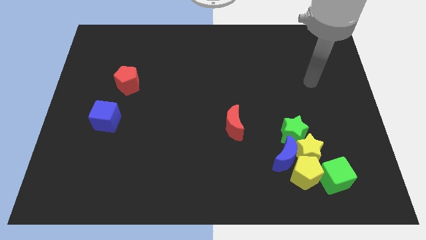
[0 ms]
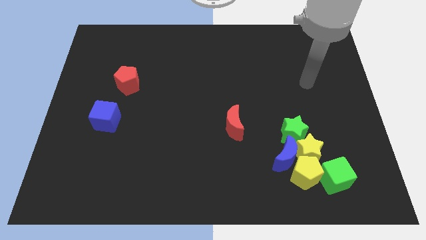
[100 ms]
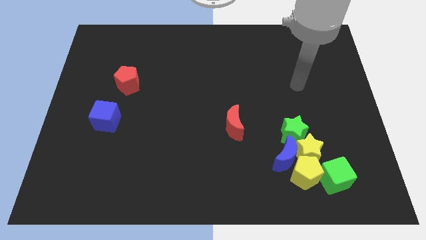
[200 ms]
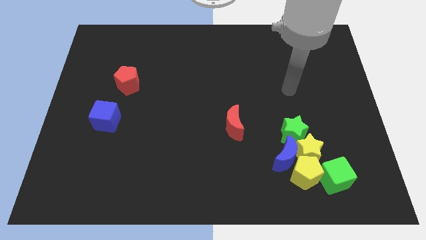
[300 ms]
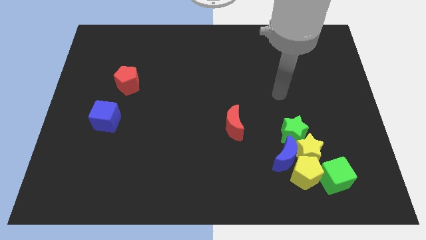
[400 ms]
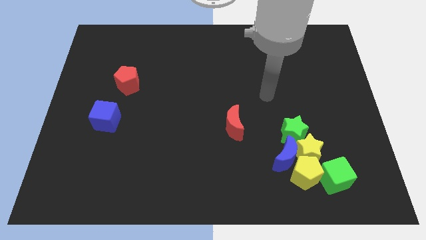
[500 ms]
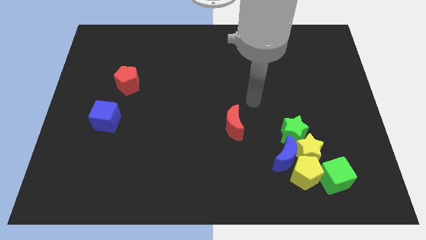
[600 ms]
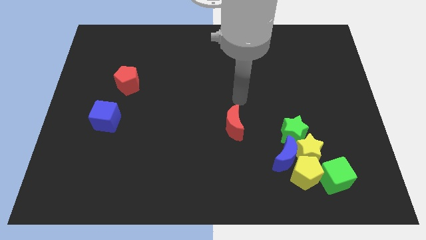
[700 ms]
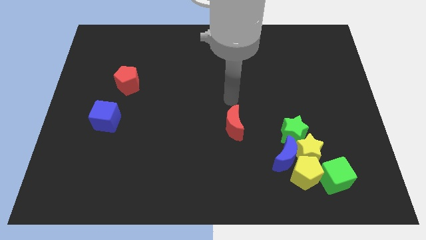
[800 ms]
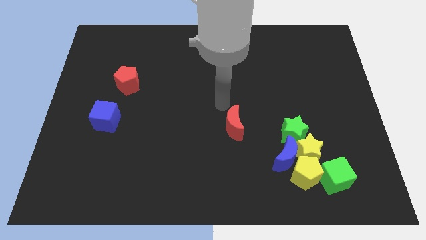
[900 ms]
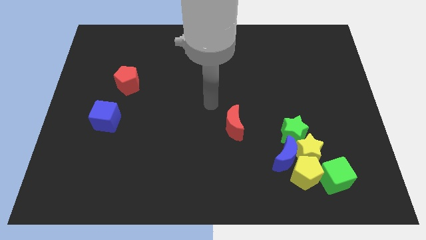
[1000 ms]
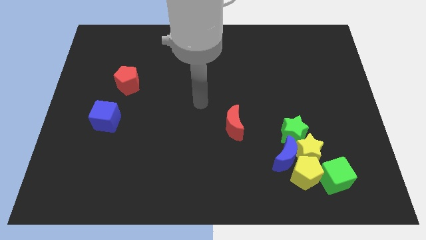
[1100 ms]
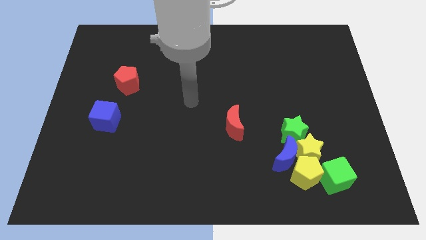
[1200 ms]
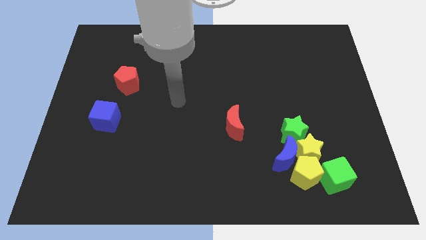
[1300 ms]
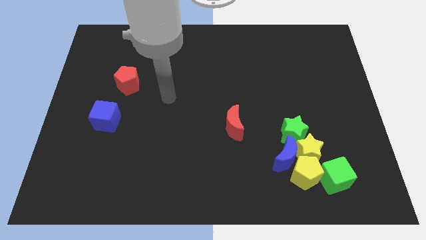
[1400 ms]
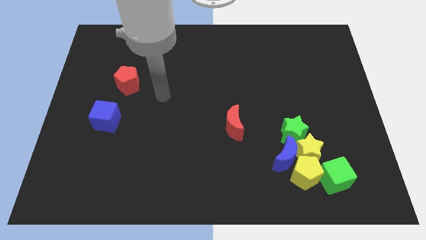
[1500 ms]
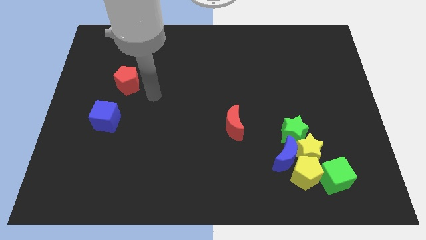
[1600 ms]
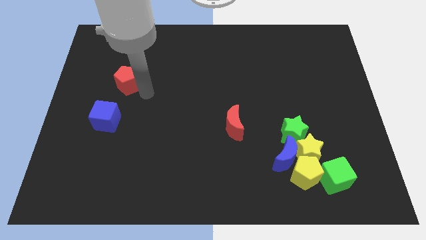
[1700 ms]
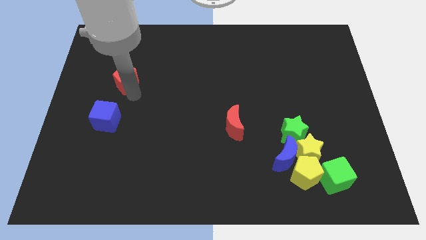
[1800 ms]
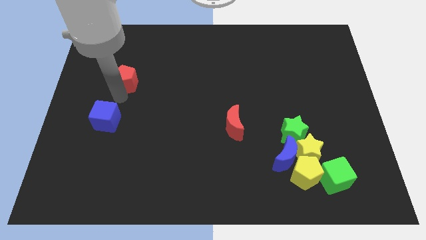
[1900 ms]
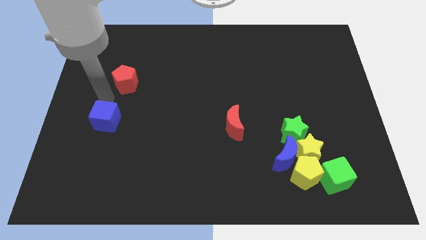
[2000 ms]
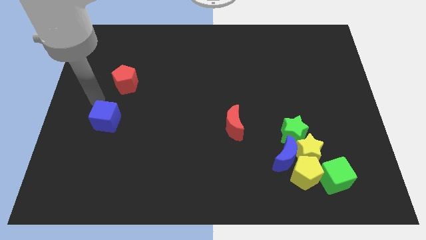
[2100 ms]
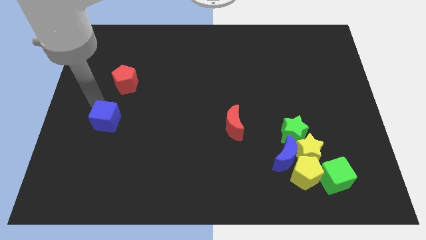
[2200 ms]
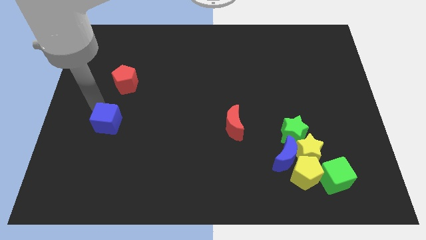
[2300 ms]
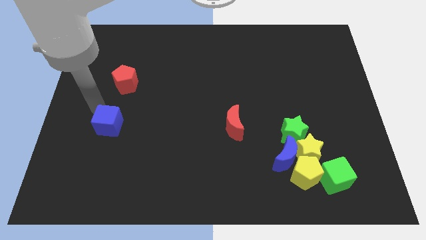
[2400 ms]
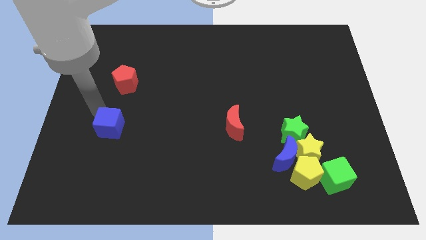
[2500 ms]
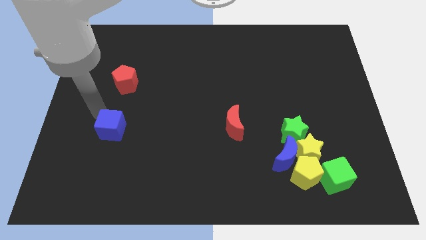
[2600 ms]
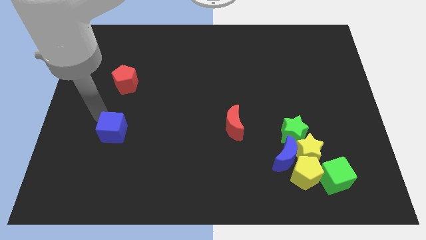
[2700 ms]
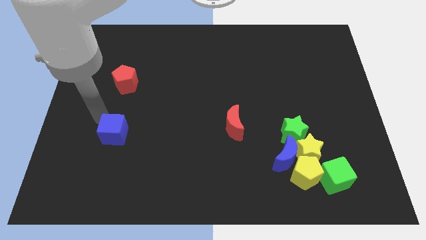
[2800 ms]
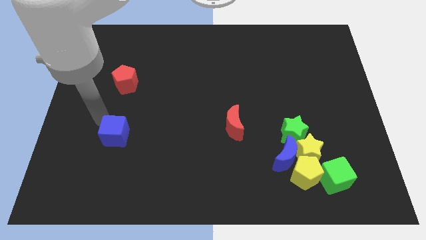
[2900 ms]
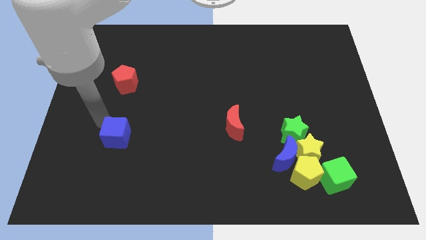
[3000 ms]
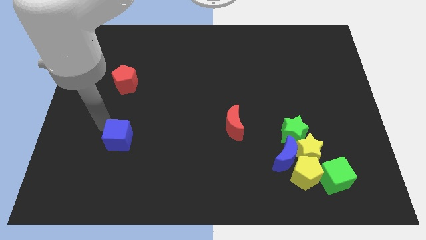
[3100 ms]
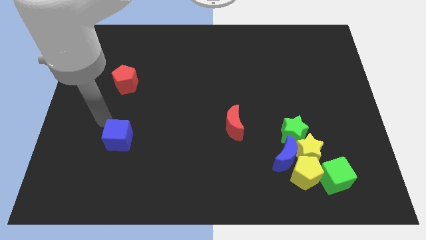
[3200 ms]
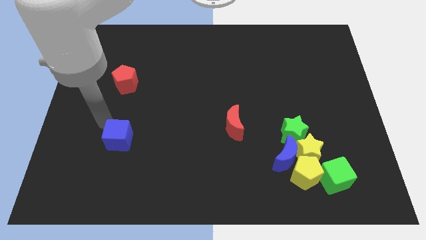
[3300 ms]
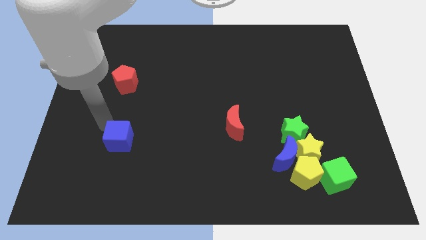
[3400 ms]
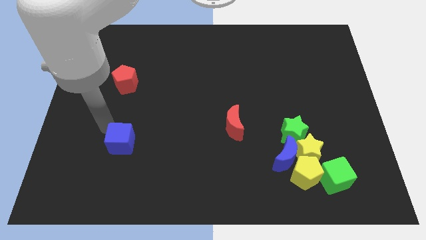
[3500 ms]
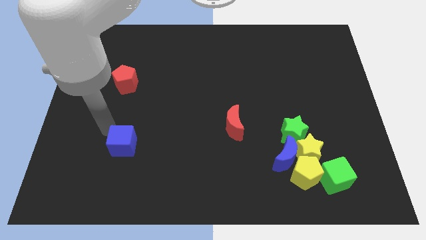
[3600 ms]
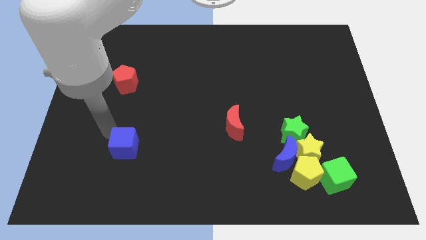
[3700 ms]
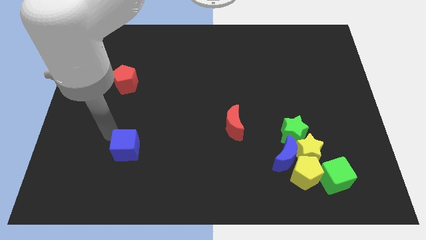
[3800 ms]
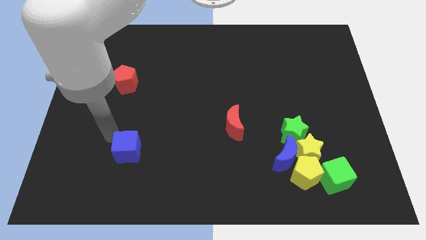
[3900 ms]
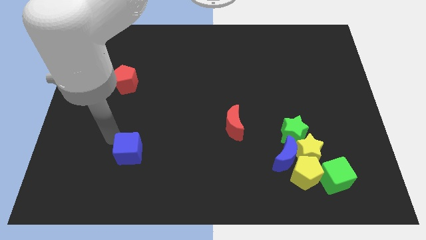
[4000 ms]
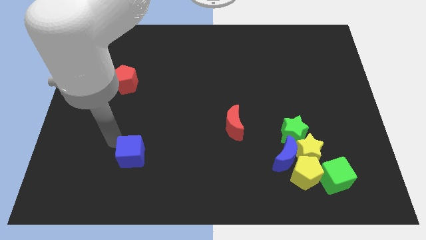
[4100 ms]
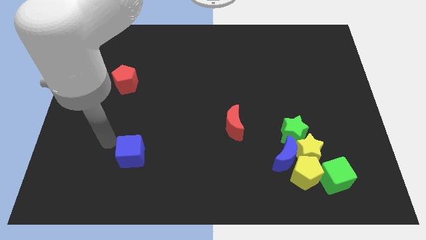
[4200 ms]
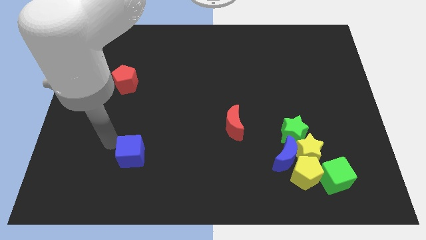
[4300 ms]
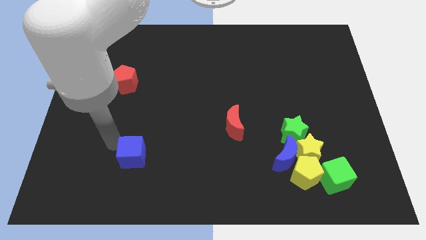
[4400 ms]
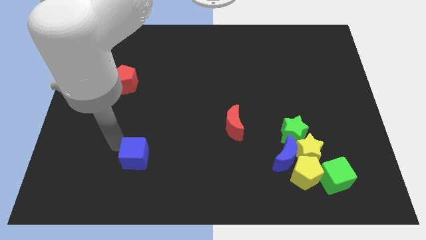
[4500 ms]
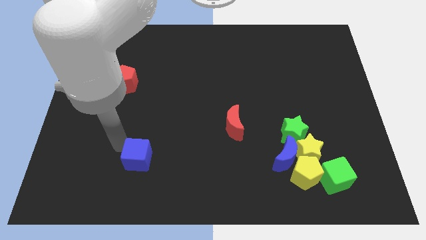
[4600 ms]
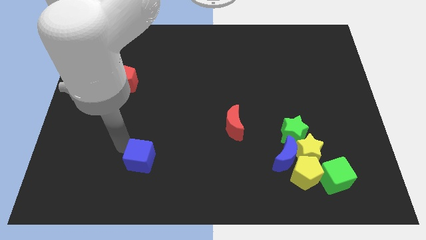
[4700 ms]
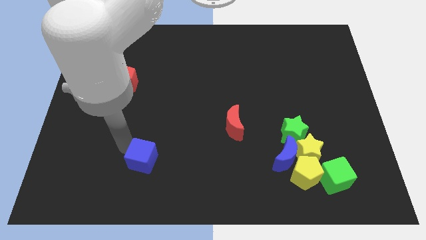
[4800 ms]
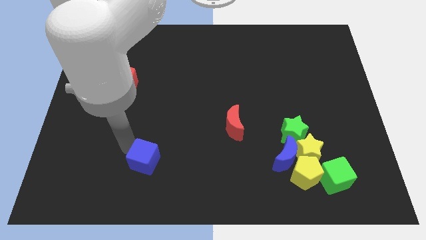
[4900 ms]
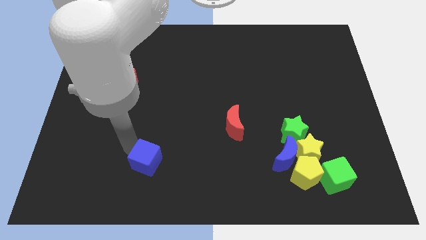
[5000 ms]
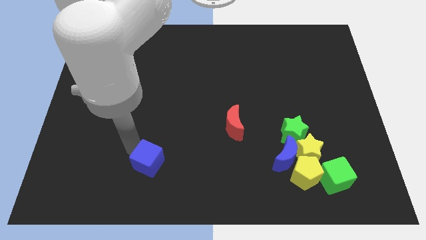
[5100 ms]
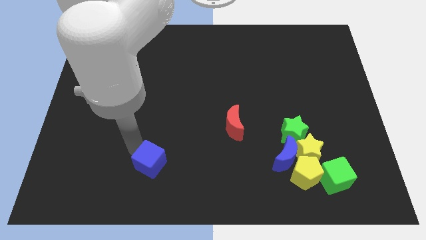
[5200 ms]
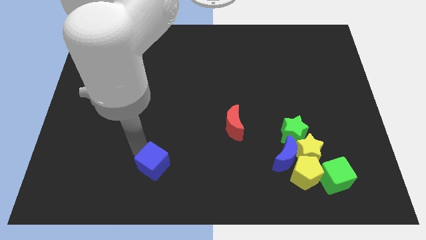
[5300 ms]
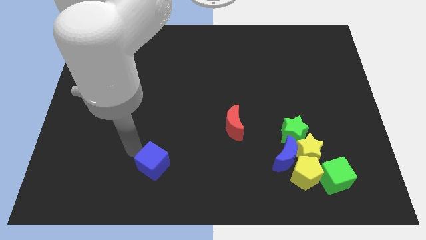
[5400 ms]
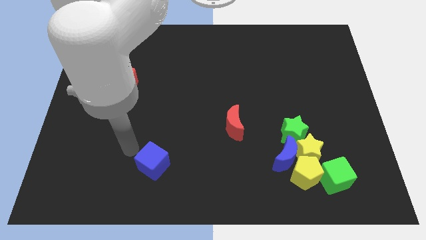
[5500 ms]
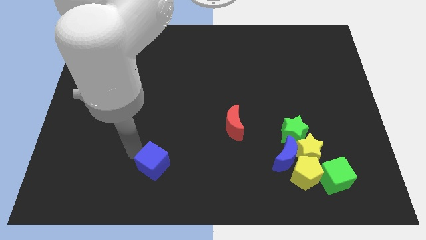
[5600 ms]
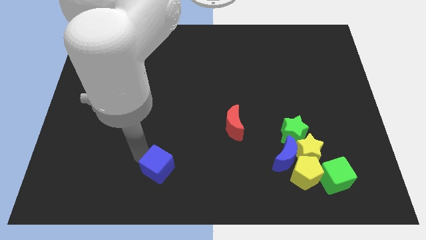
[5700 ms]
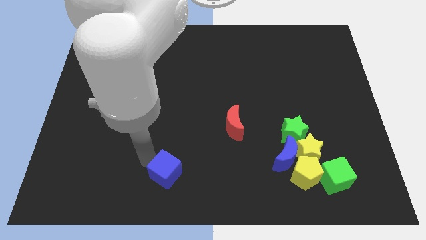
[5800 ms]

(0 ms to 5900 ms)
slide the blue cube to the bottom side

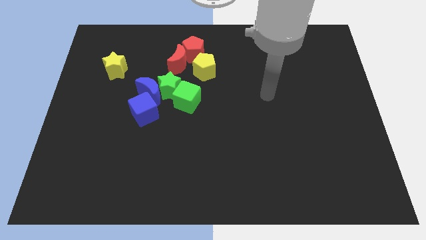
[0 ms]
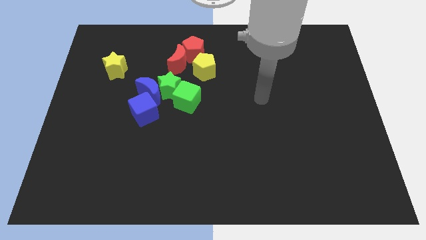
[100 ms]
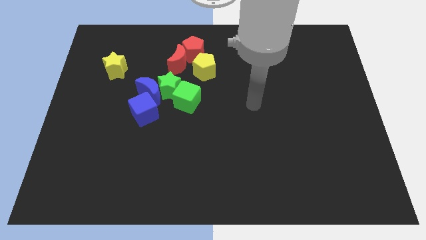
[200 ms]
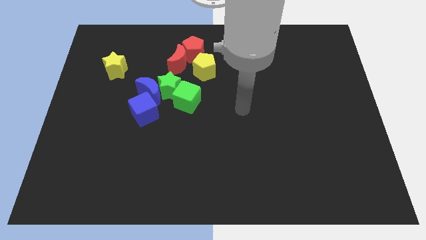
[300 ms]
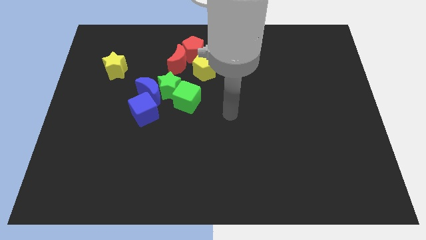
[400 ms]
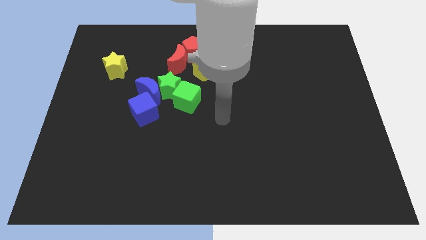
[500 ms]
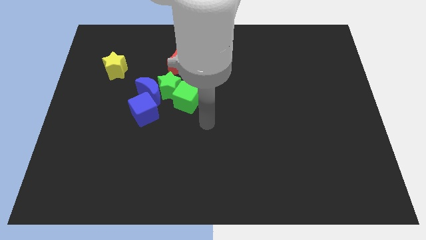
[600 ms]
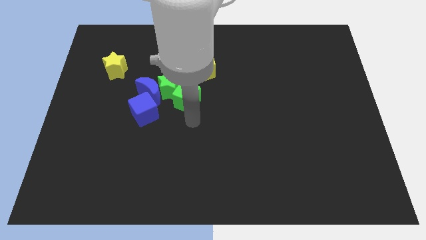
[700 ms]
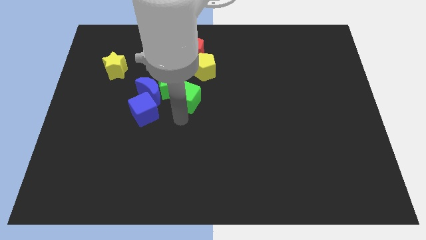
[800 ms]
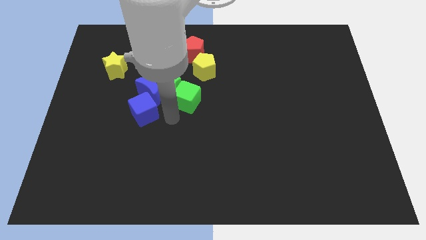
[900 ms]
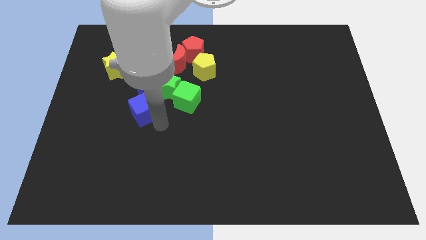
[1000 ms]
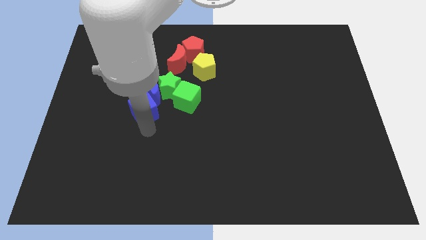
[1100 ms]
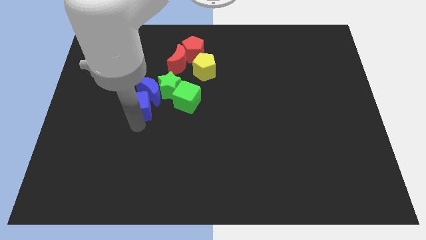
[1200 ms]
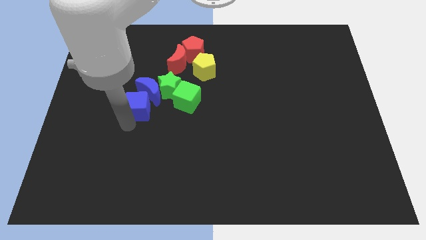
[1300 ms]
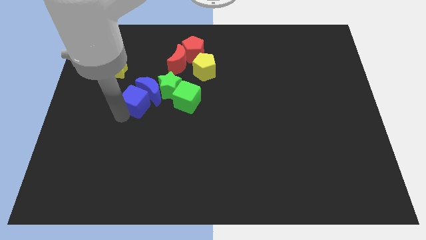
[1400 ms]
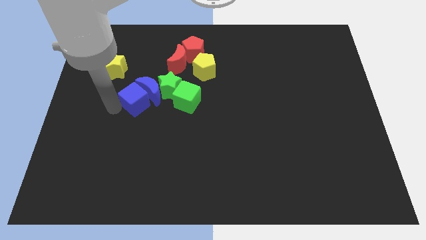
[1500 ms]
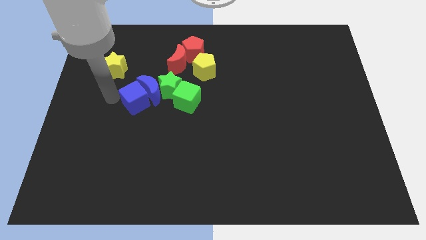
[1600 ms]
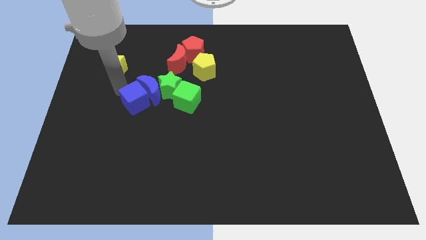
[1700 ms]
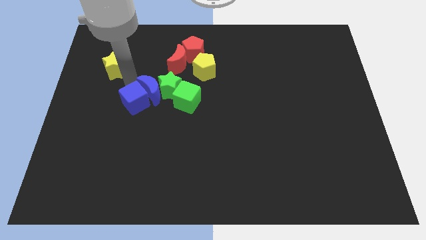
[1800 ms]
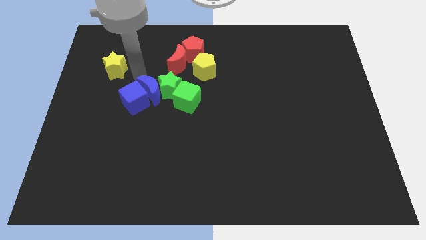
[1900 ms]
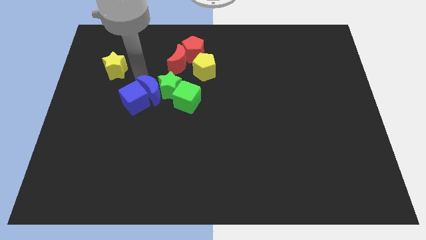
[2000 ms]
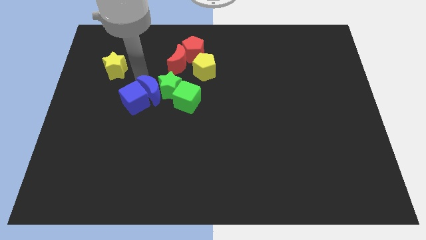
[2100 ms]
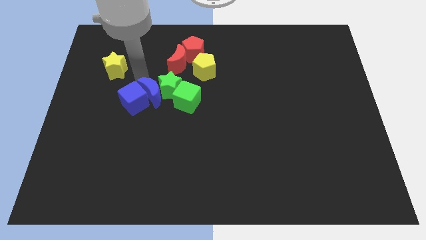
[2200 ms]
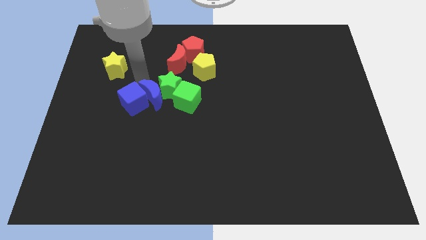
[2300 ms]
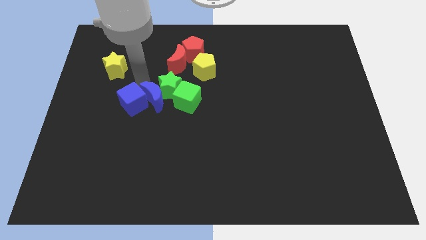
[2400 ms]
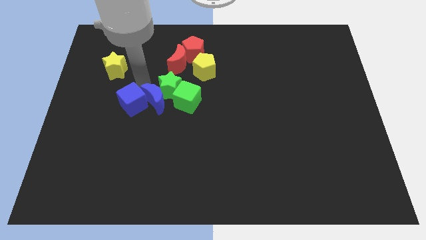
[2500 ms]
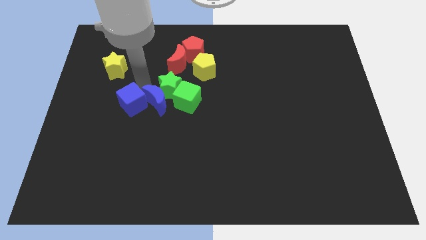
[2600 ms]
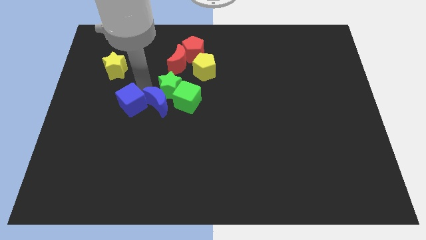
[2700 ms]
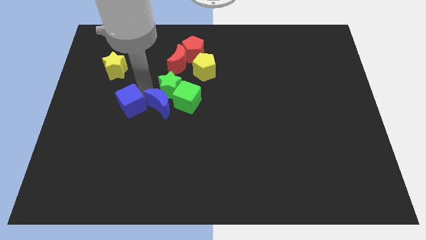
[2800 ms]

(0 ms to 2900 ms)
move the blue moon to the middle of the board
